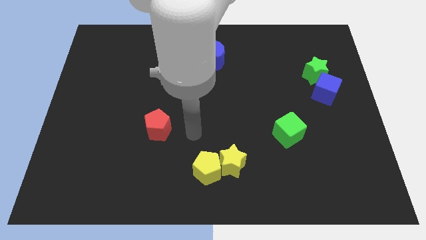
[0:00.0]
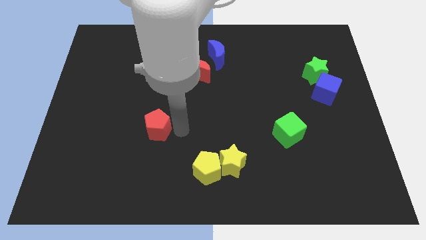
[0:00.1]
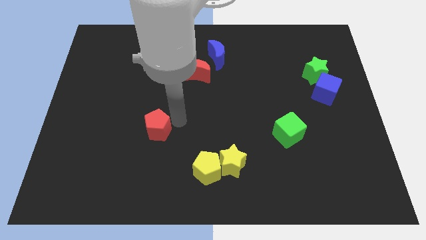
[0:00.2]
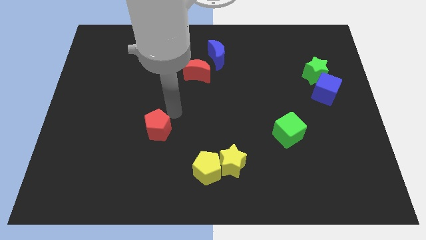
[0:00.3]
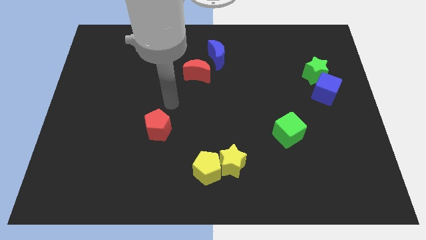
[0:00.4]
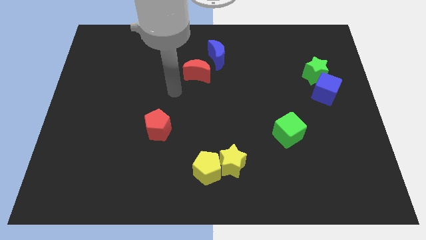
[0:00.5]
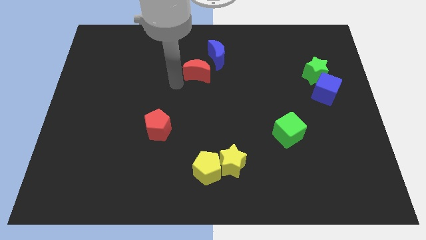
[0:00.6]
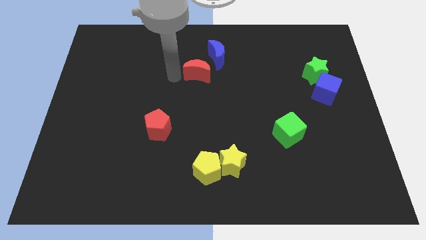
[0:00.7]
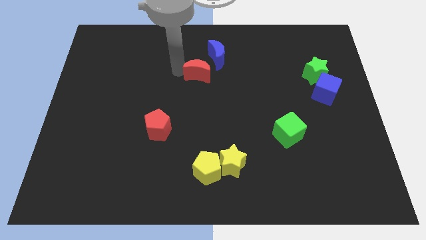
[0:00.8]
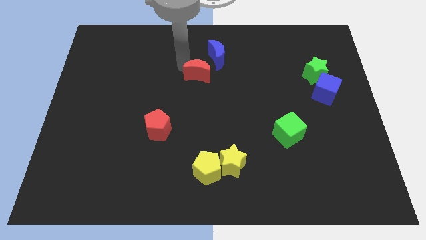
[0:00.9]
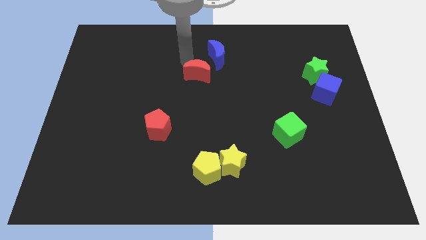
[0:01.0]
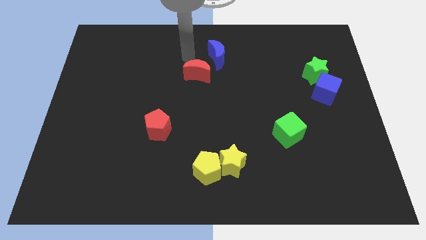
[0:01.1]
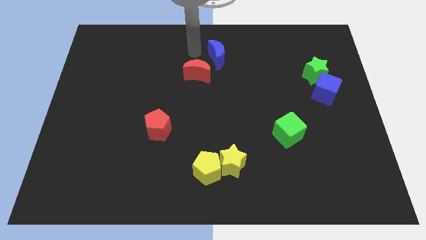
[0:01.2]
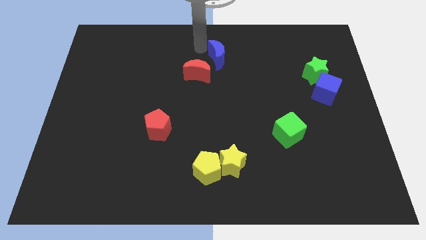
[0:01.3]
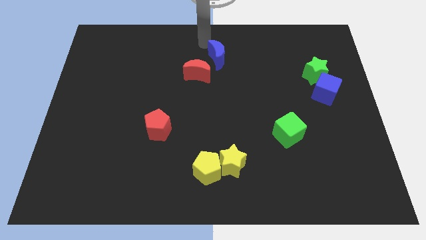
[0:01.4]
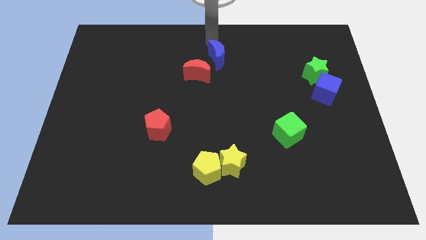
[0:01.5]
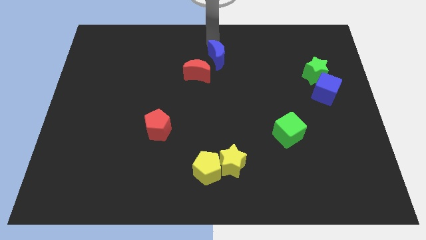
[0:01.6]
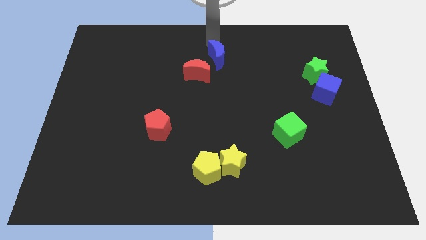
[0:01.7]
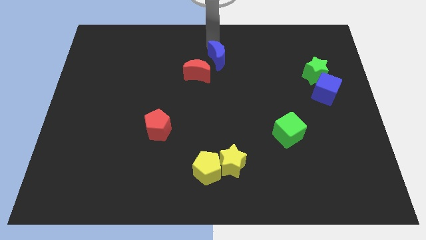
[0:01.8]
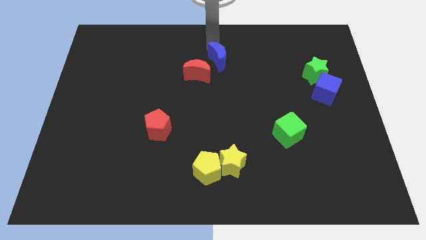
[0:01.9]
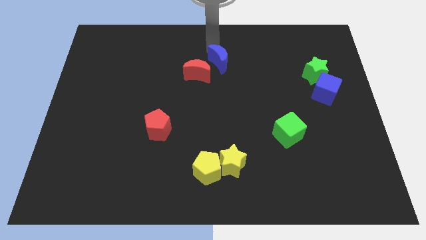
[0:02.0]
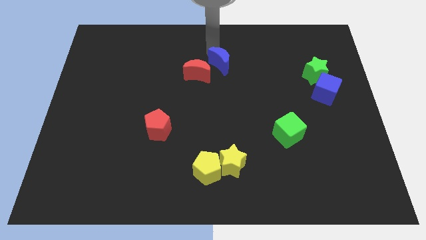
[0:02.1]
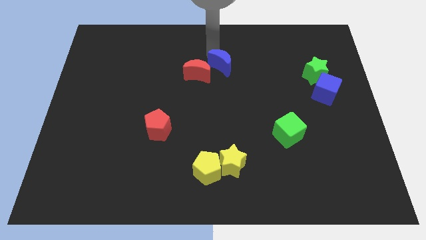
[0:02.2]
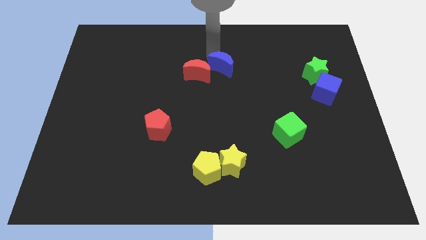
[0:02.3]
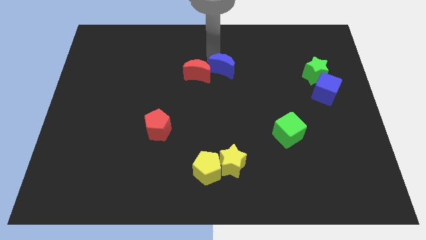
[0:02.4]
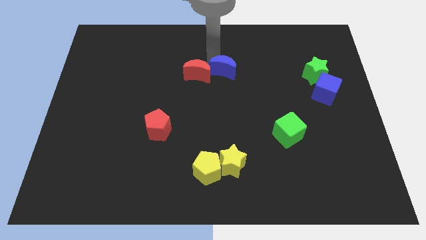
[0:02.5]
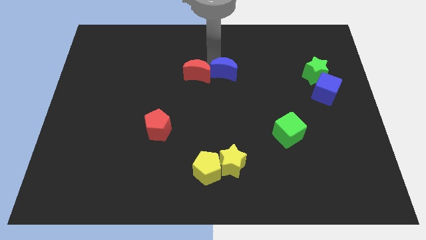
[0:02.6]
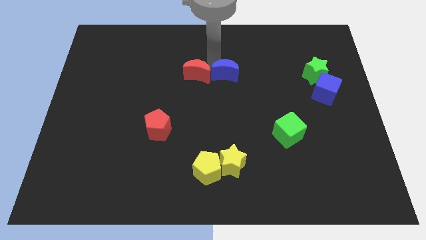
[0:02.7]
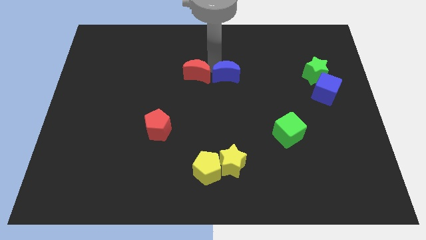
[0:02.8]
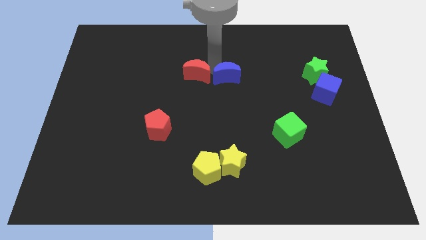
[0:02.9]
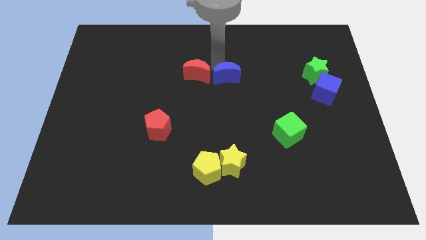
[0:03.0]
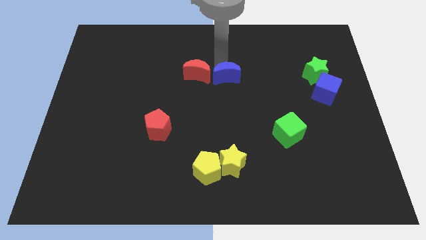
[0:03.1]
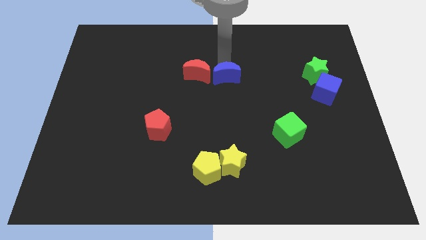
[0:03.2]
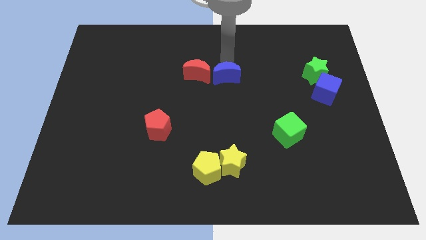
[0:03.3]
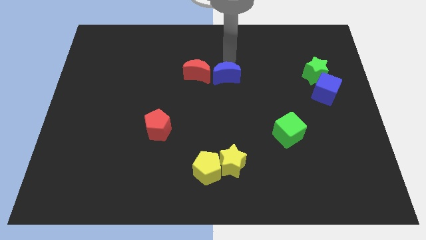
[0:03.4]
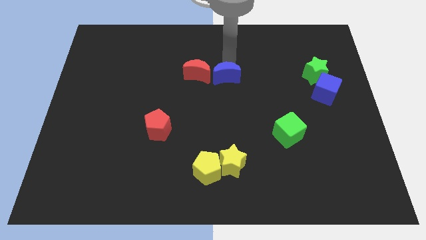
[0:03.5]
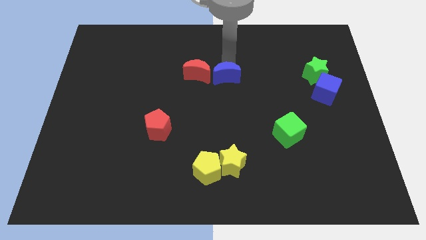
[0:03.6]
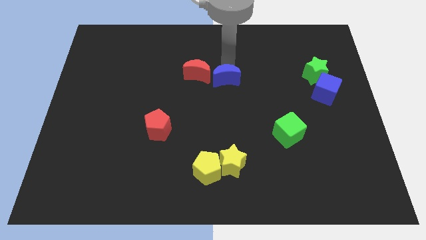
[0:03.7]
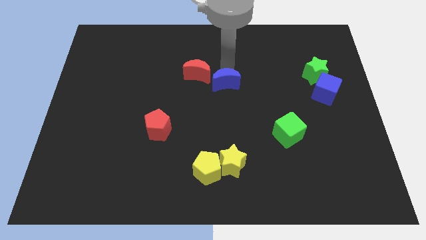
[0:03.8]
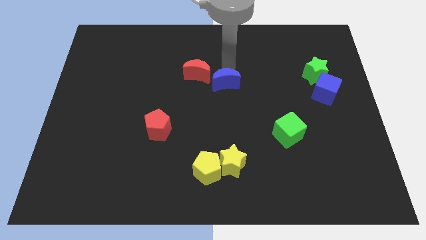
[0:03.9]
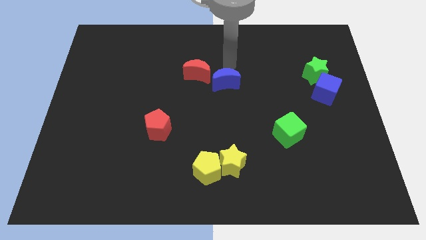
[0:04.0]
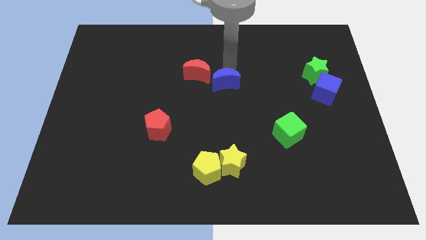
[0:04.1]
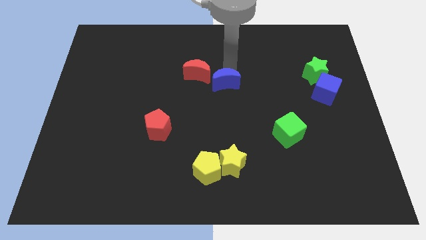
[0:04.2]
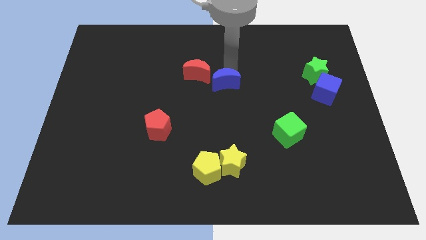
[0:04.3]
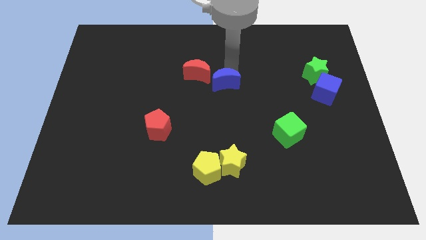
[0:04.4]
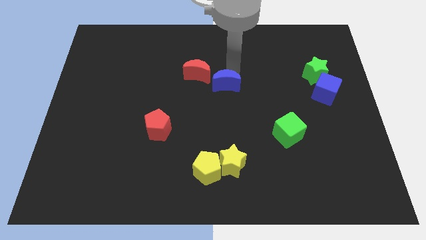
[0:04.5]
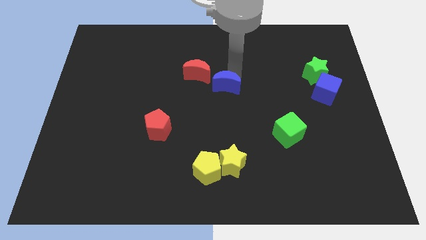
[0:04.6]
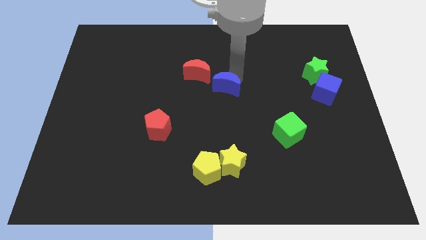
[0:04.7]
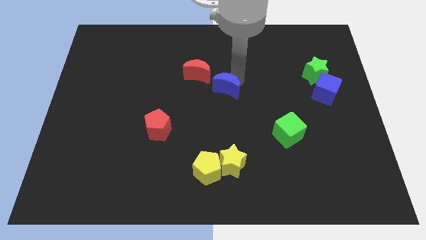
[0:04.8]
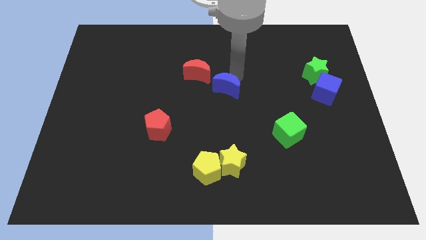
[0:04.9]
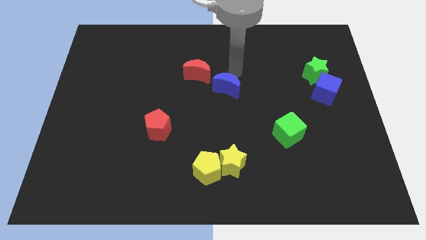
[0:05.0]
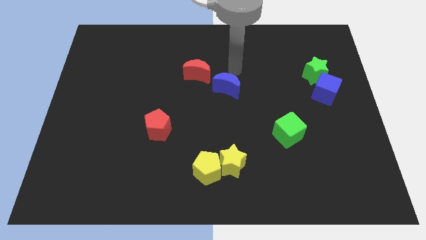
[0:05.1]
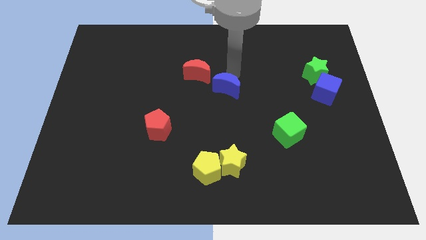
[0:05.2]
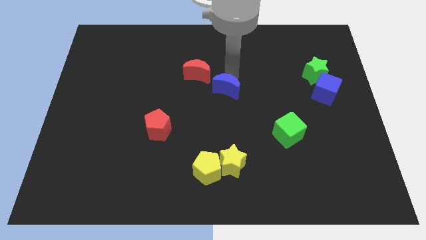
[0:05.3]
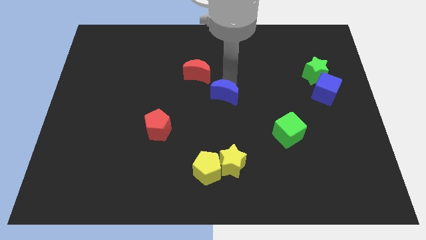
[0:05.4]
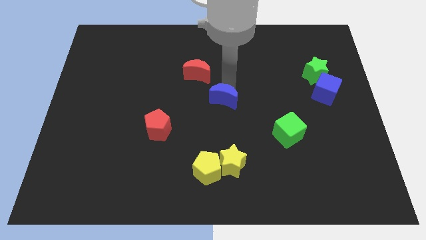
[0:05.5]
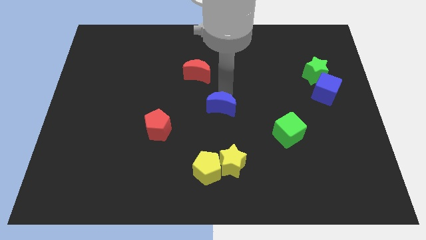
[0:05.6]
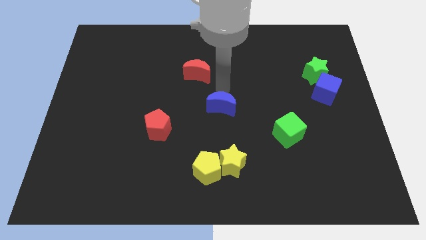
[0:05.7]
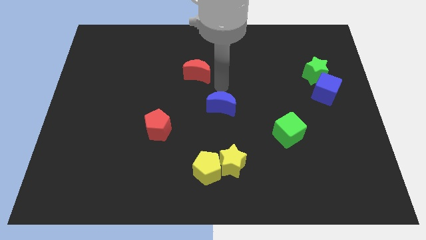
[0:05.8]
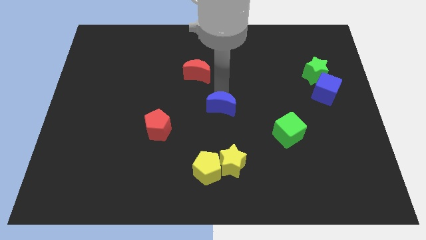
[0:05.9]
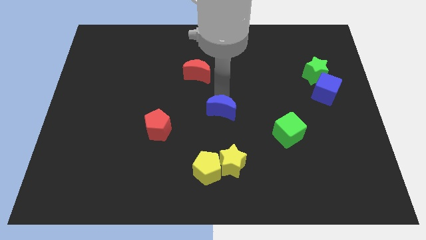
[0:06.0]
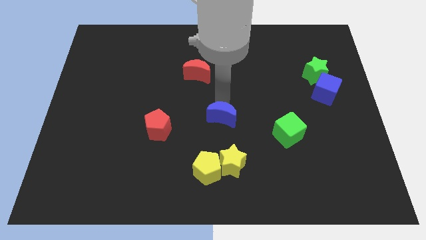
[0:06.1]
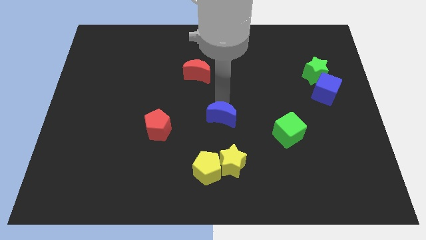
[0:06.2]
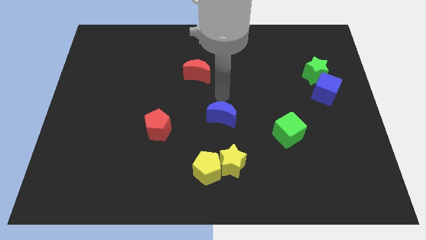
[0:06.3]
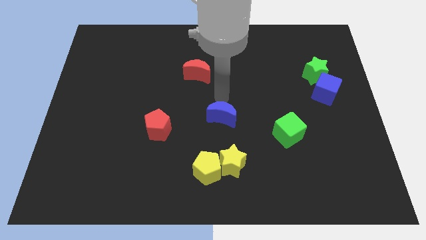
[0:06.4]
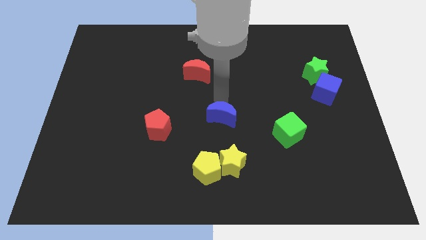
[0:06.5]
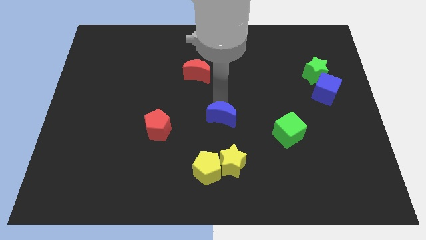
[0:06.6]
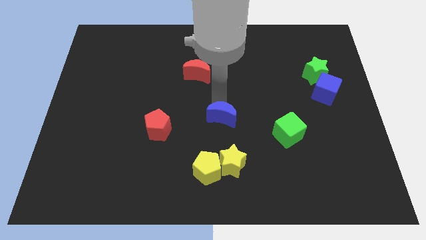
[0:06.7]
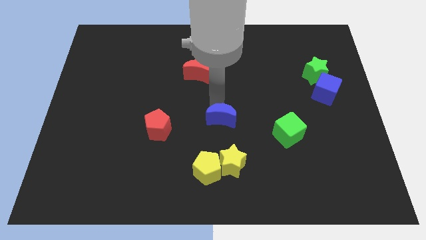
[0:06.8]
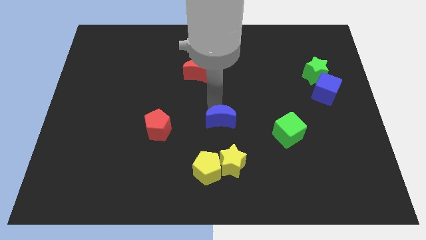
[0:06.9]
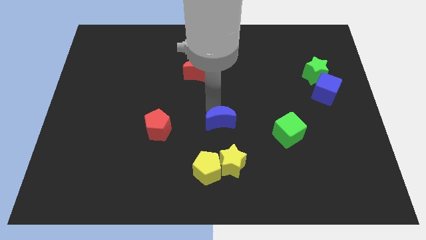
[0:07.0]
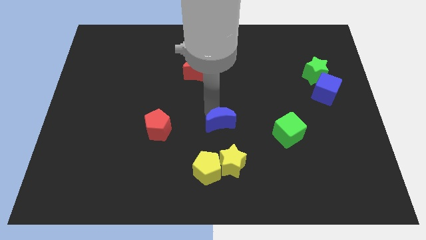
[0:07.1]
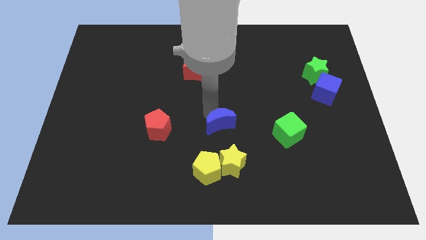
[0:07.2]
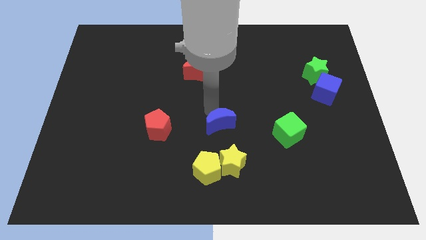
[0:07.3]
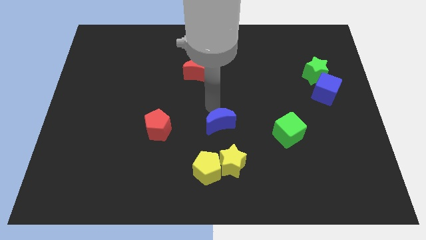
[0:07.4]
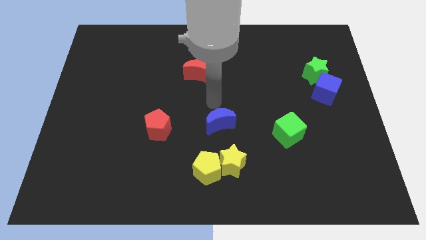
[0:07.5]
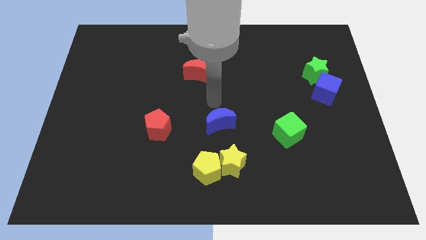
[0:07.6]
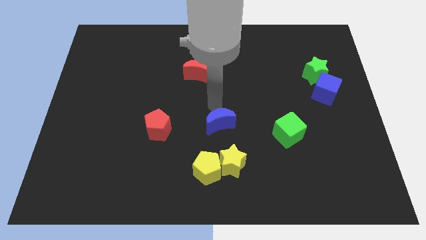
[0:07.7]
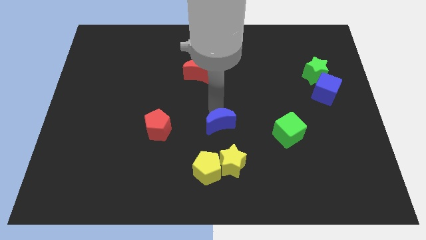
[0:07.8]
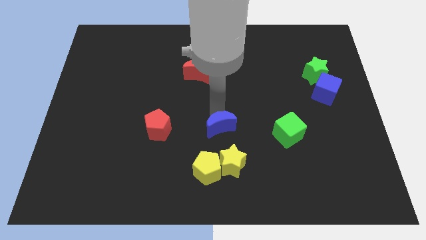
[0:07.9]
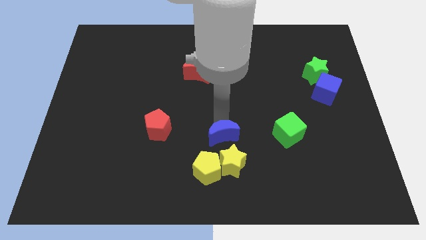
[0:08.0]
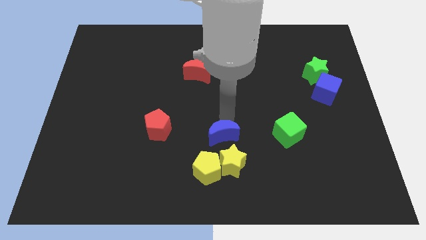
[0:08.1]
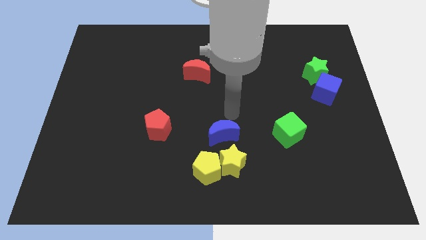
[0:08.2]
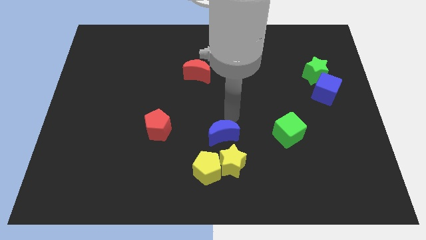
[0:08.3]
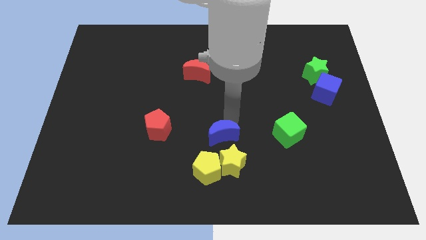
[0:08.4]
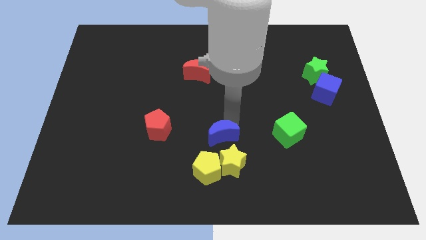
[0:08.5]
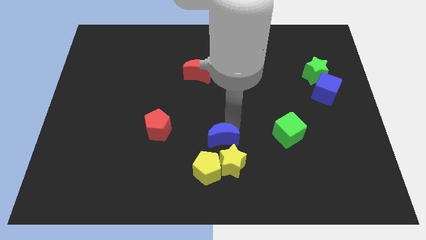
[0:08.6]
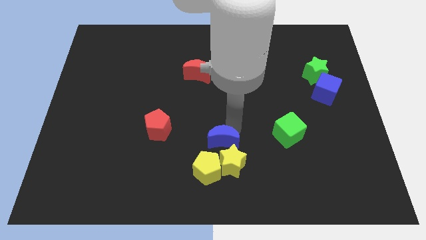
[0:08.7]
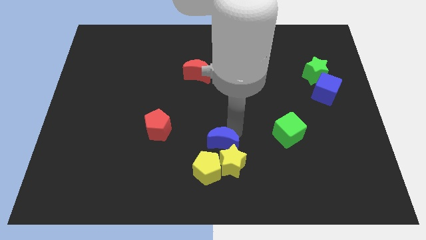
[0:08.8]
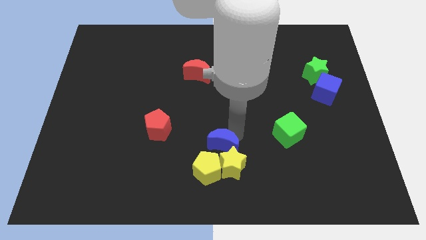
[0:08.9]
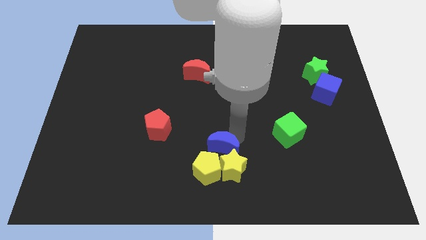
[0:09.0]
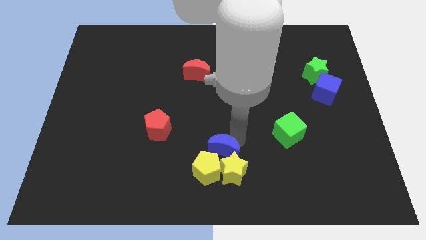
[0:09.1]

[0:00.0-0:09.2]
slide the blue moon close to the yellow pentagon
